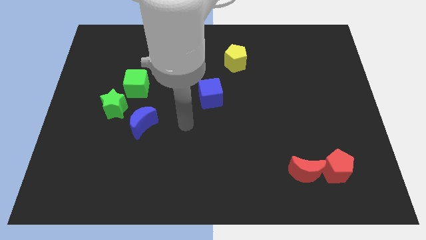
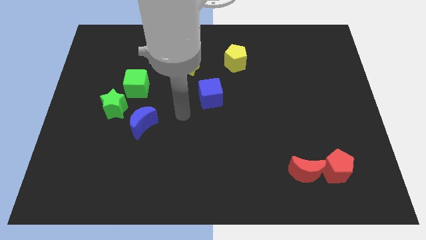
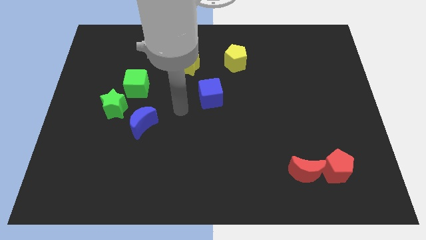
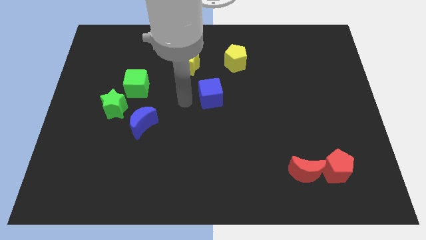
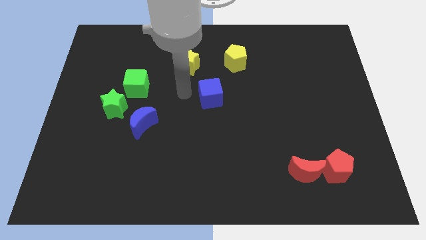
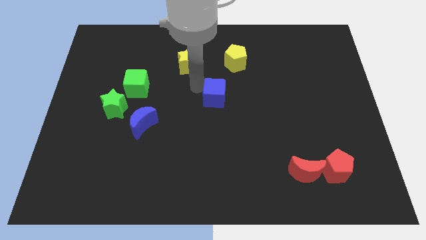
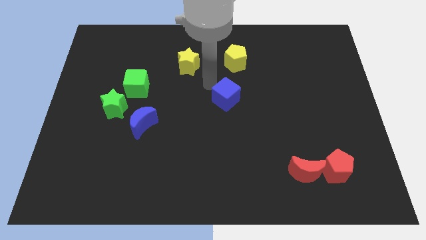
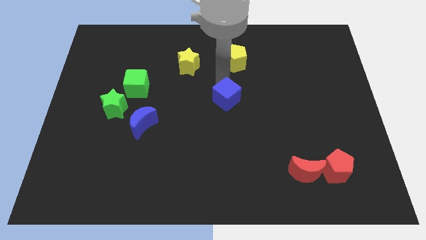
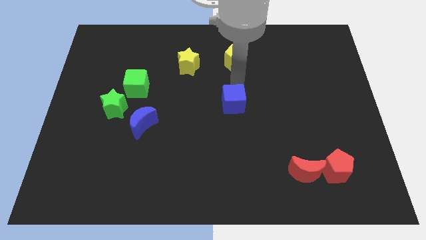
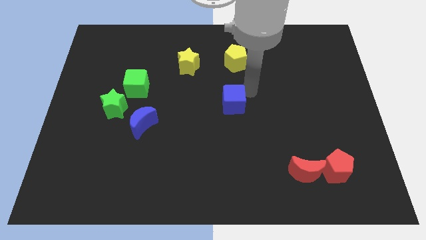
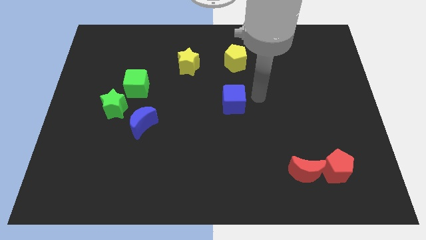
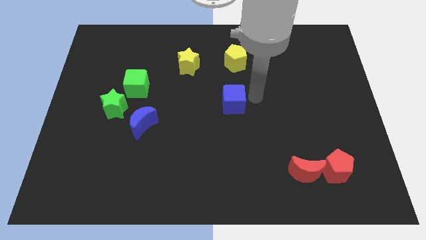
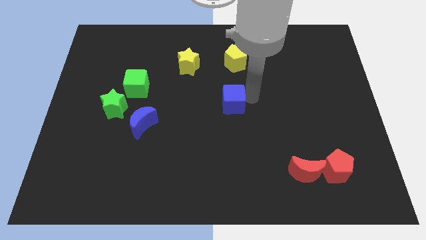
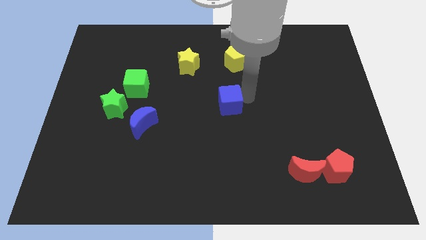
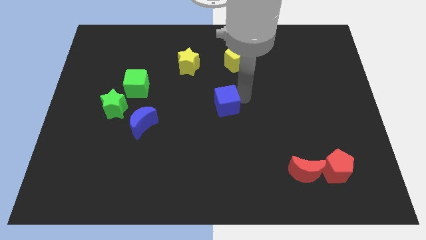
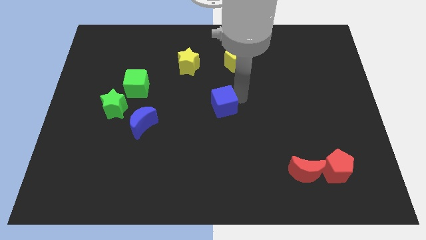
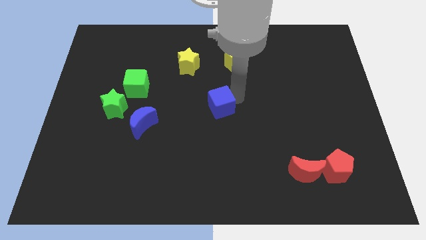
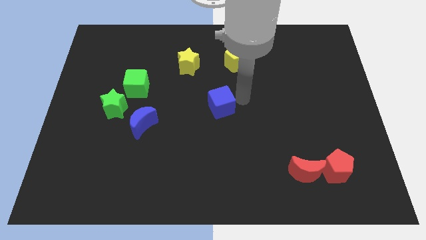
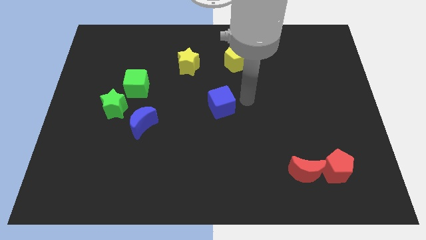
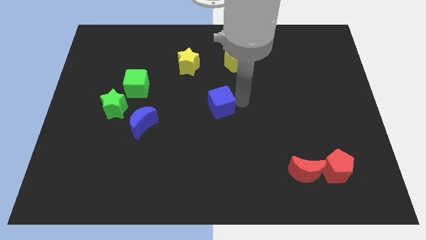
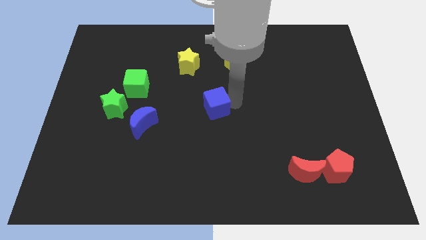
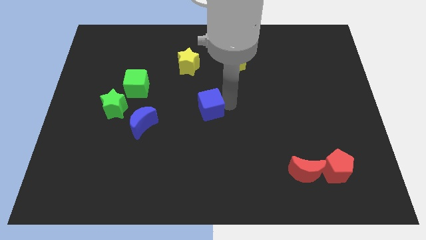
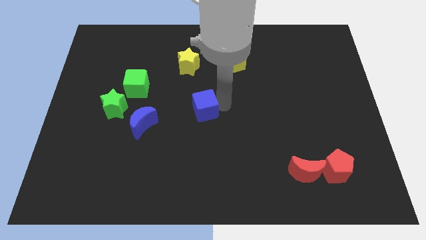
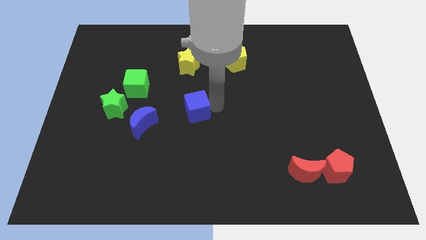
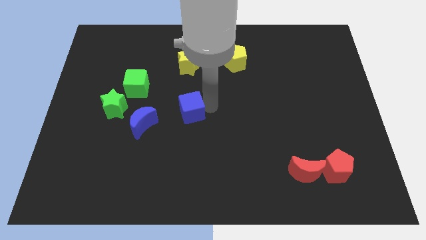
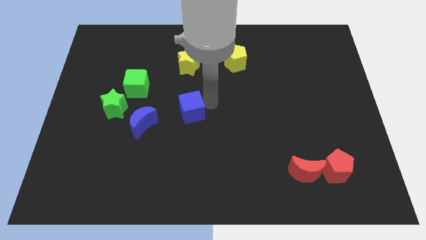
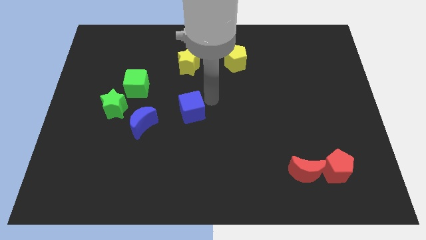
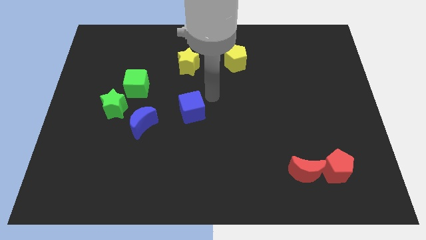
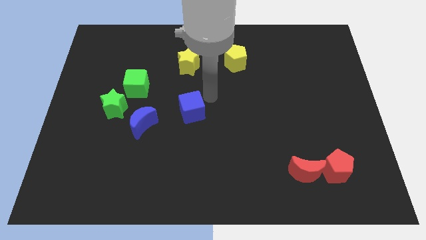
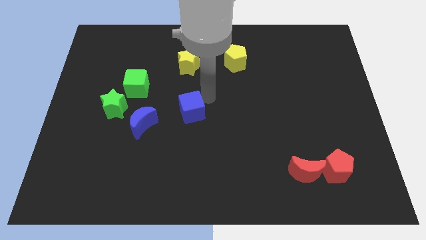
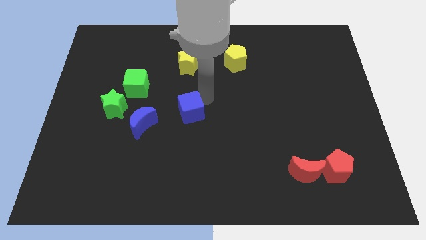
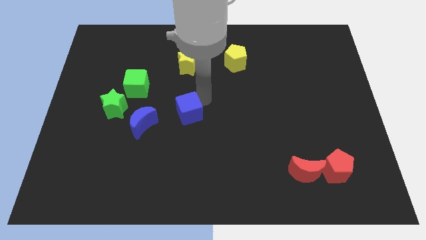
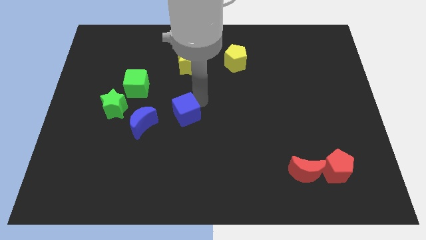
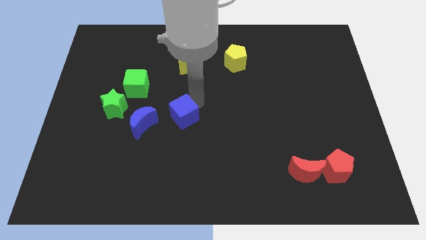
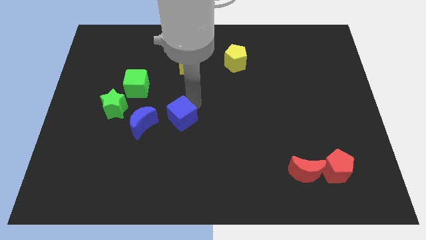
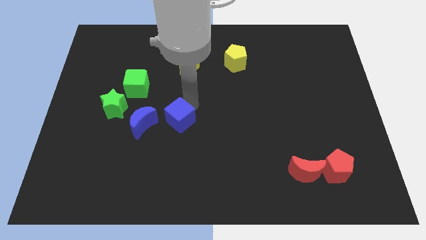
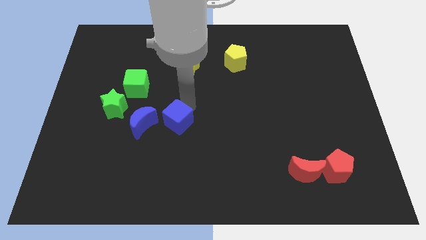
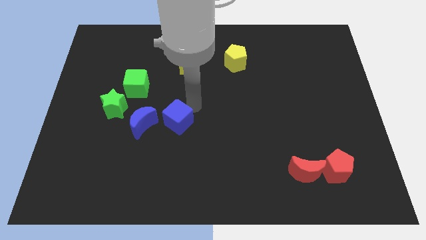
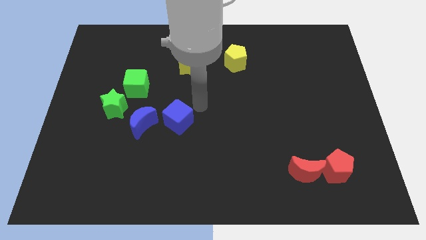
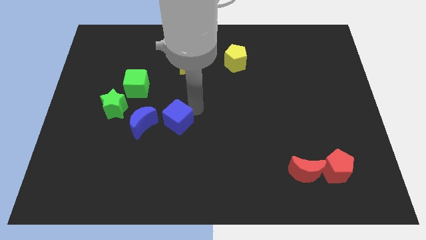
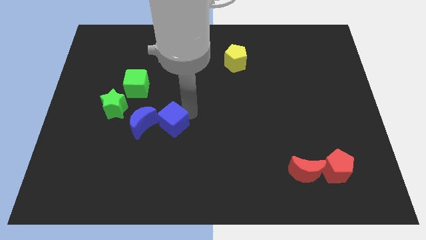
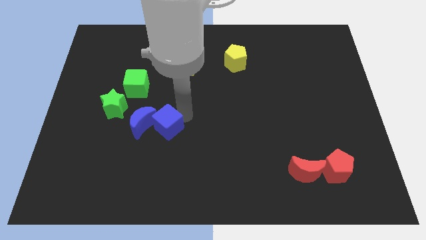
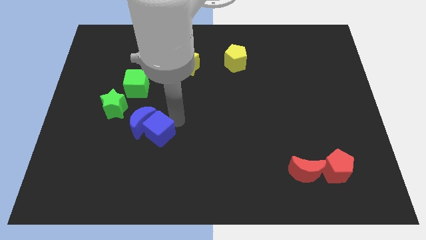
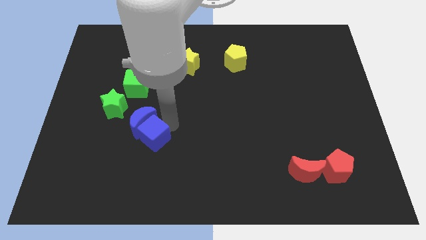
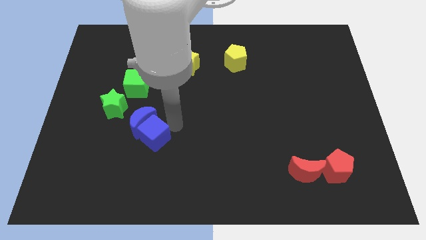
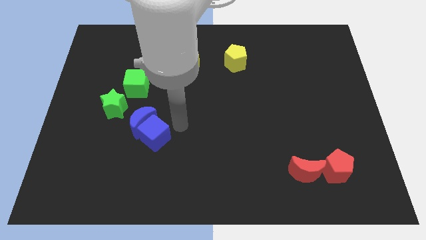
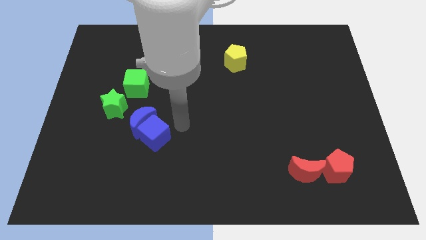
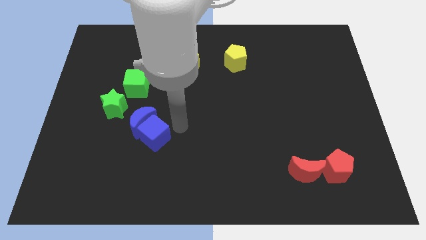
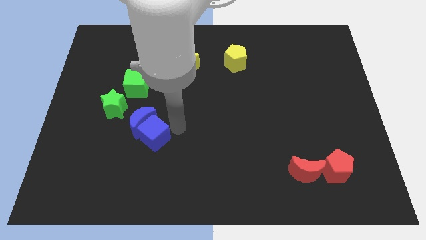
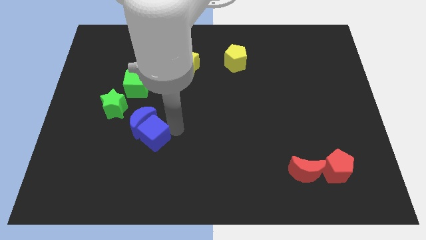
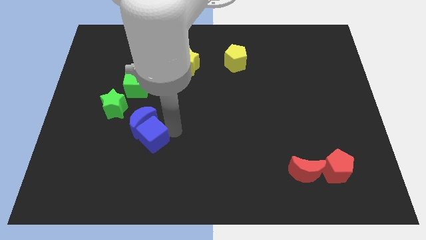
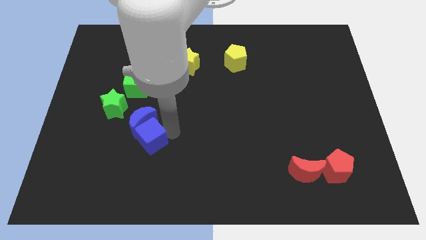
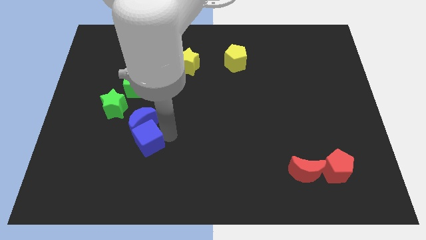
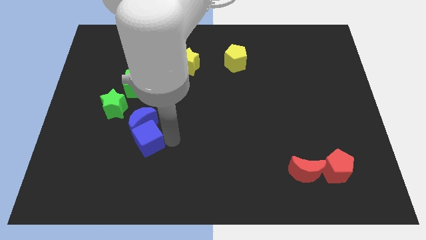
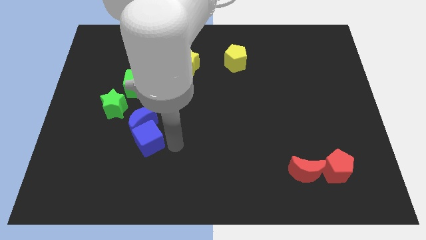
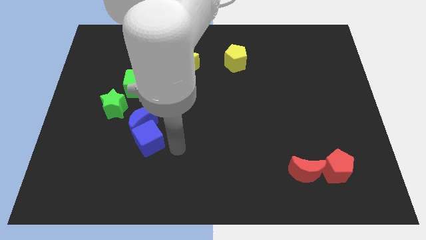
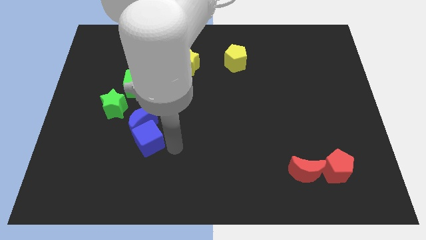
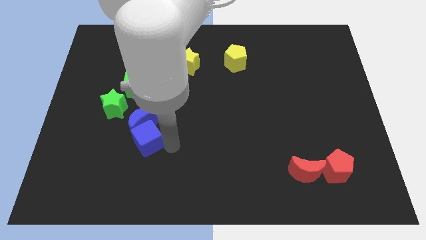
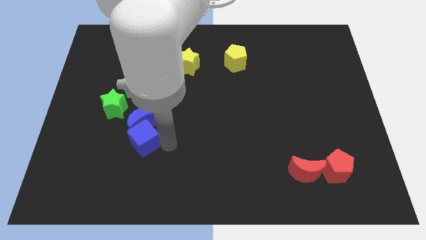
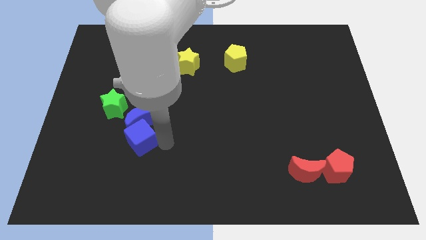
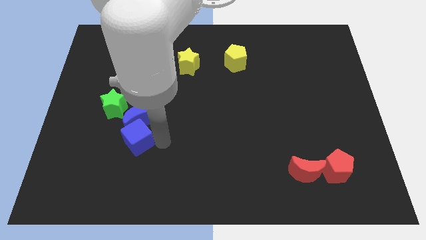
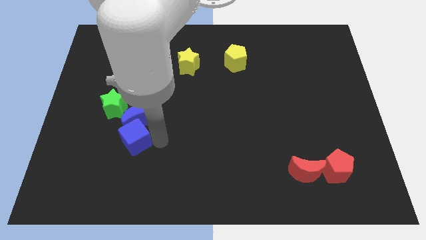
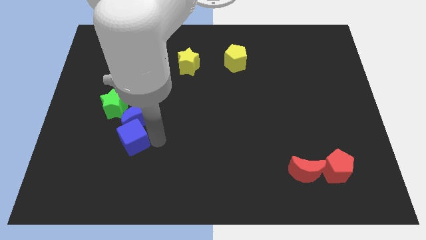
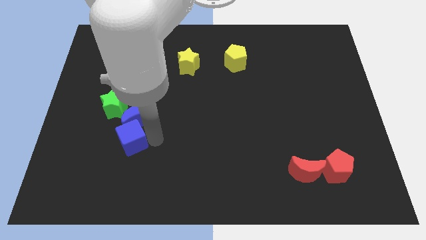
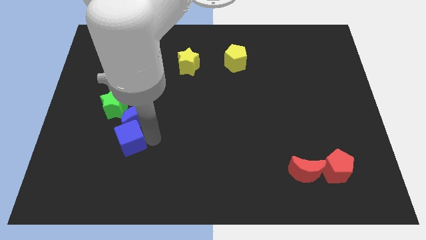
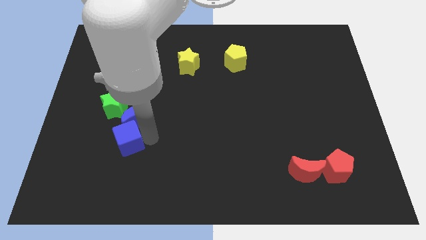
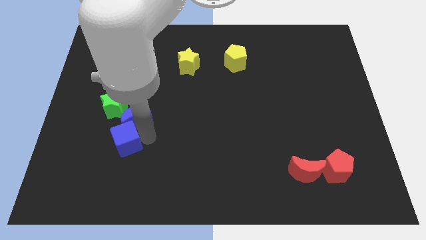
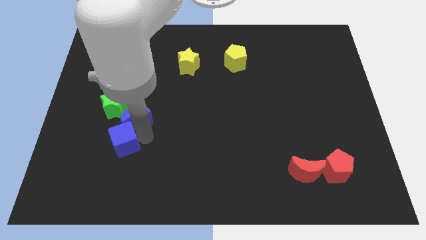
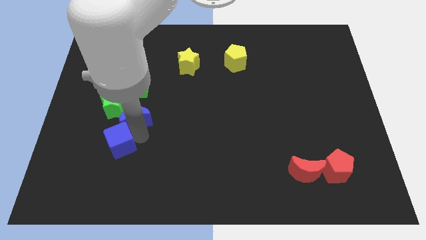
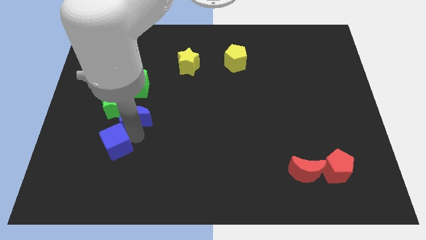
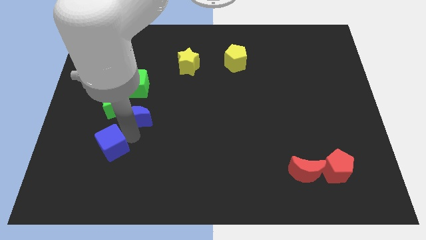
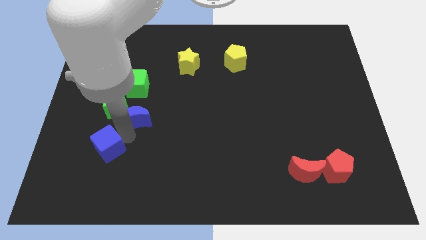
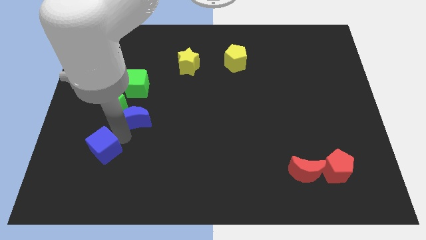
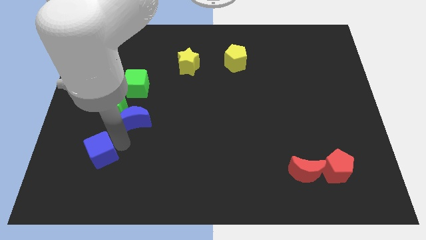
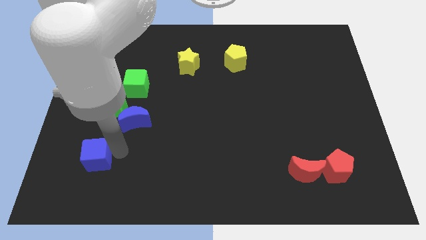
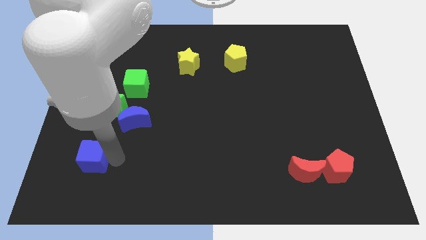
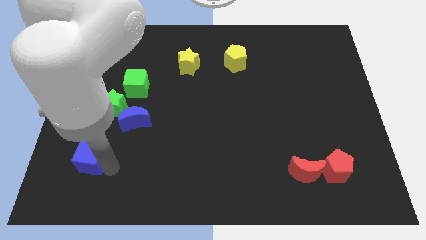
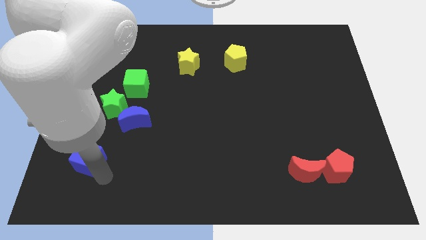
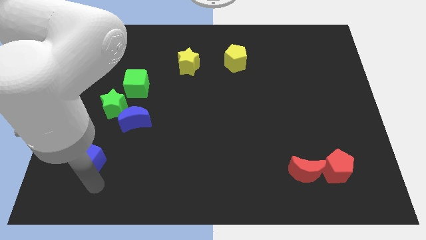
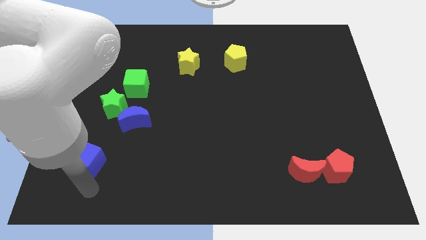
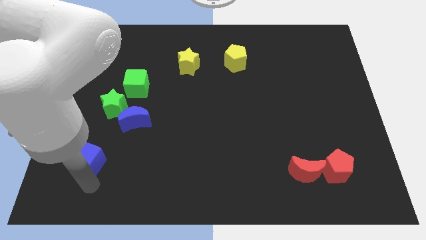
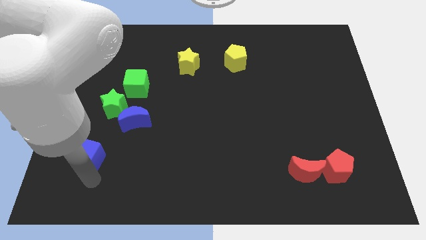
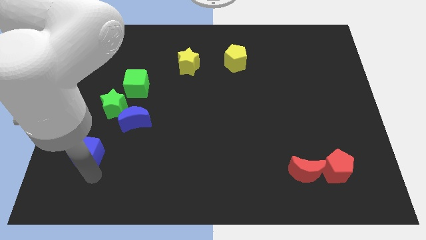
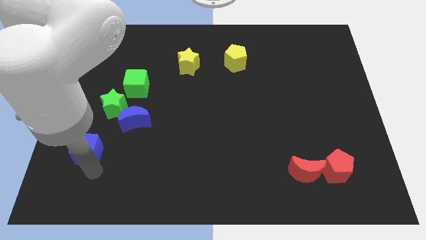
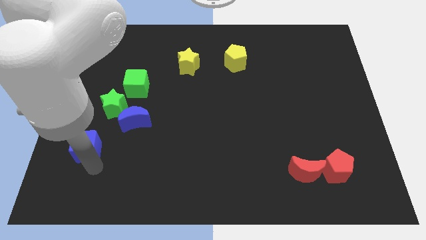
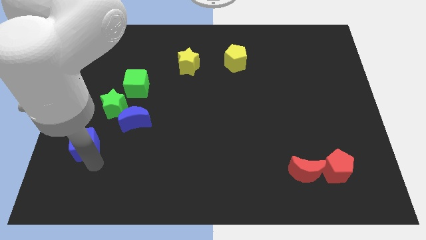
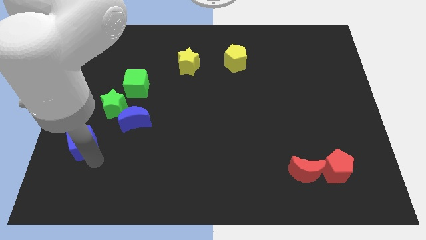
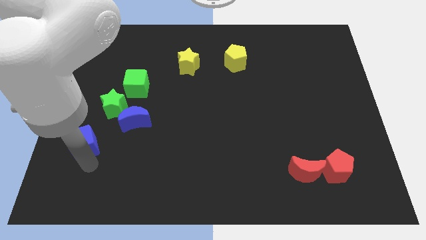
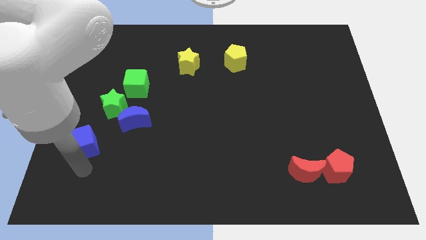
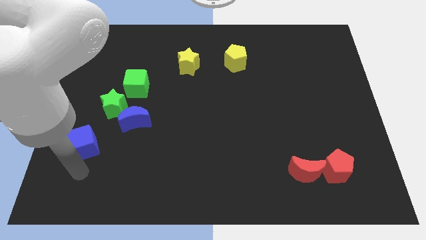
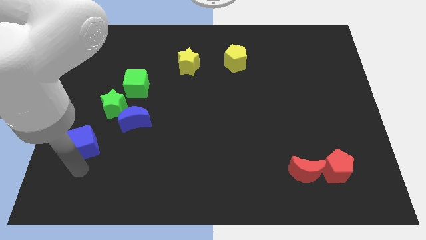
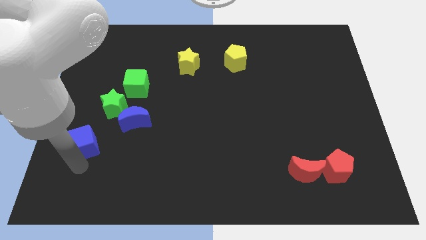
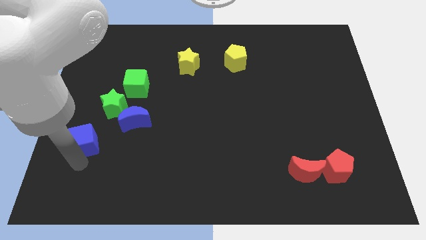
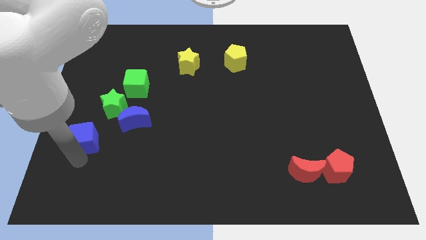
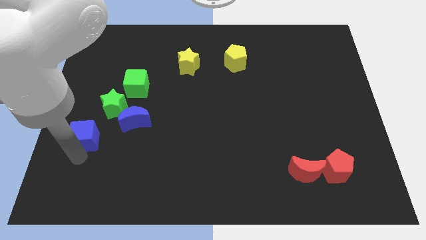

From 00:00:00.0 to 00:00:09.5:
push the blue cube to the left of the blue moon
